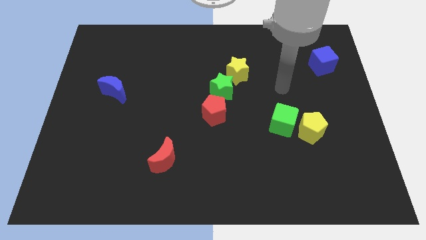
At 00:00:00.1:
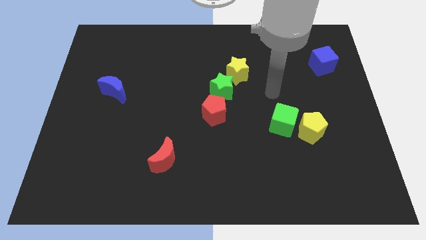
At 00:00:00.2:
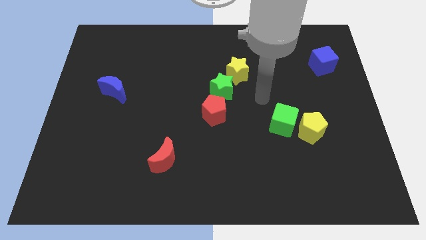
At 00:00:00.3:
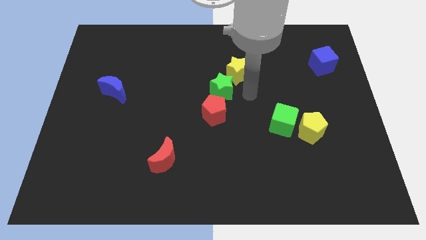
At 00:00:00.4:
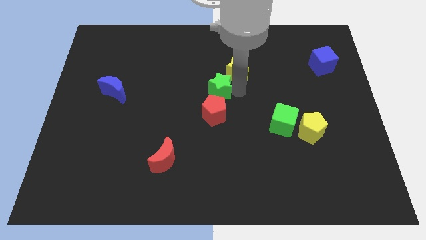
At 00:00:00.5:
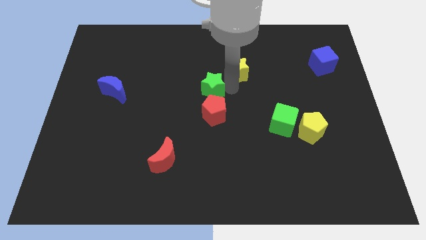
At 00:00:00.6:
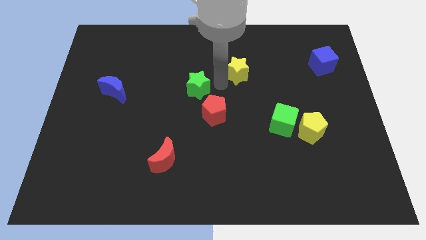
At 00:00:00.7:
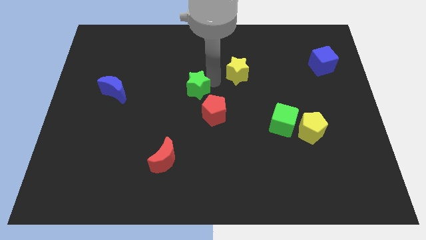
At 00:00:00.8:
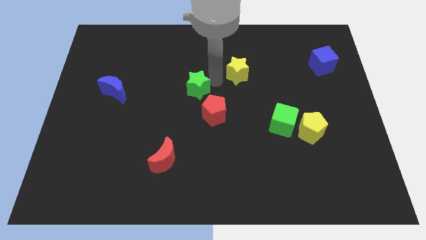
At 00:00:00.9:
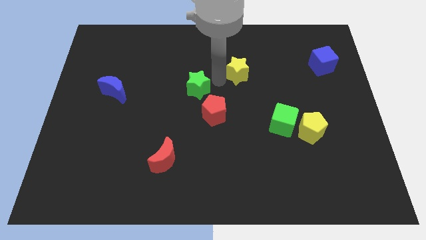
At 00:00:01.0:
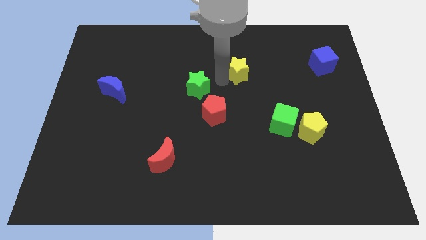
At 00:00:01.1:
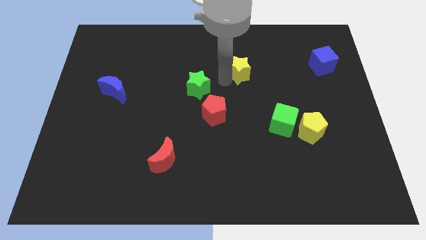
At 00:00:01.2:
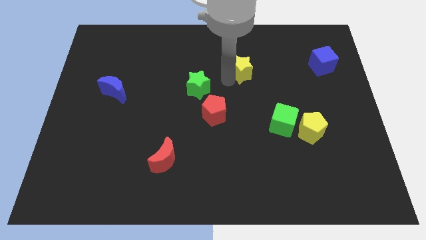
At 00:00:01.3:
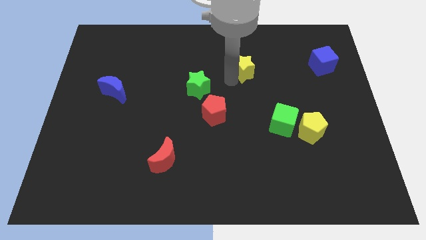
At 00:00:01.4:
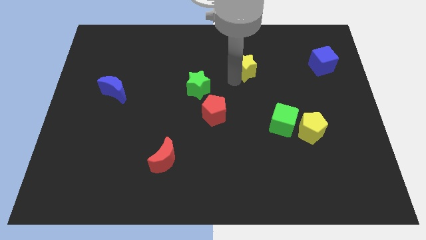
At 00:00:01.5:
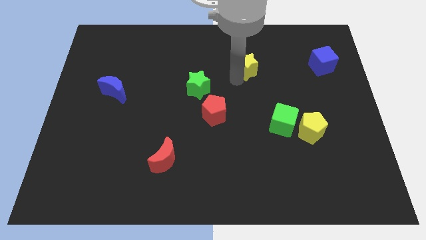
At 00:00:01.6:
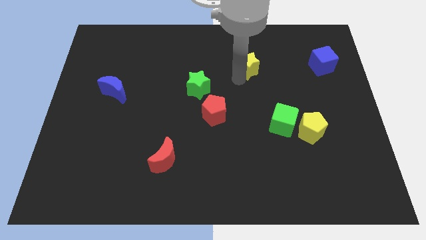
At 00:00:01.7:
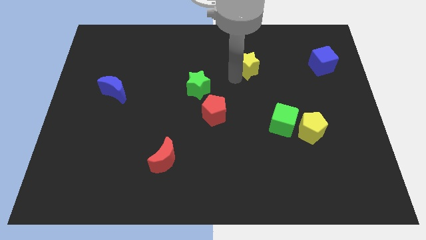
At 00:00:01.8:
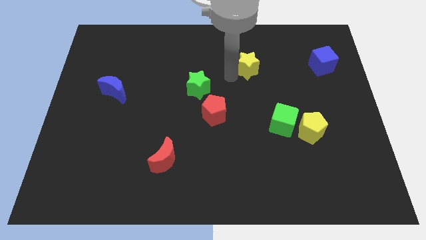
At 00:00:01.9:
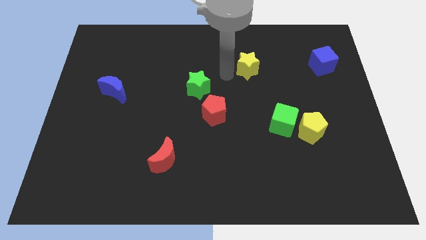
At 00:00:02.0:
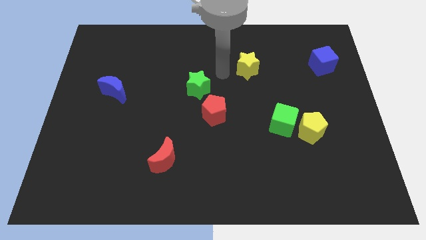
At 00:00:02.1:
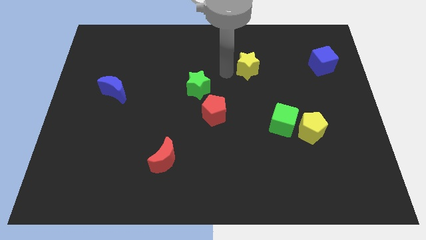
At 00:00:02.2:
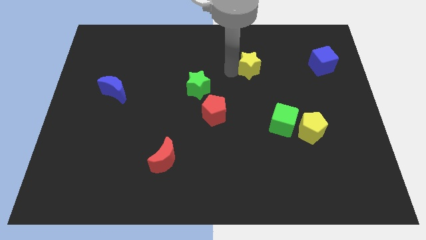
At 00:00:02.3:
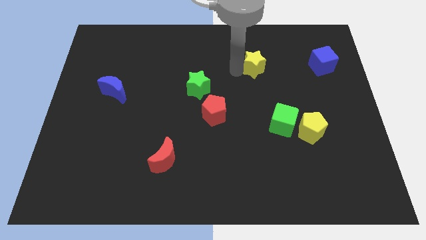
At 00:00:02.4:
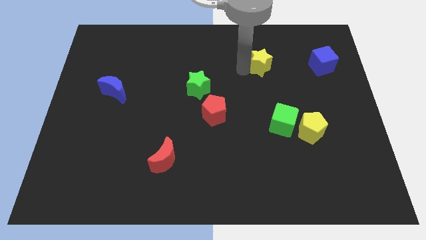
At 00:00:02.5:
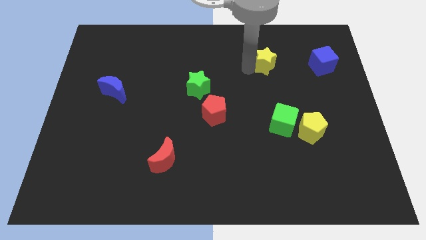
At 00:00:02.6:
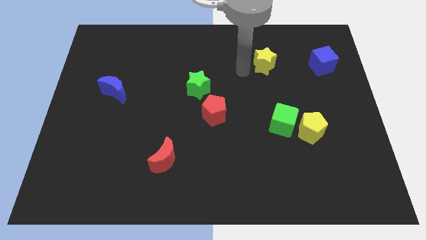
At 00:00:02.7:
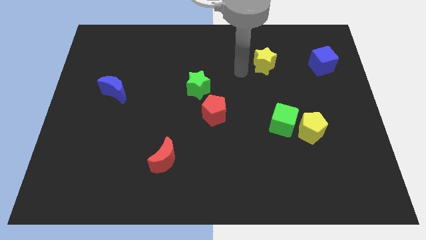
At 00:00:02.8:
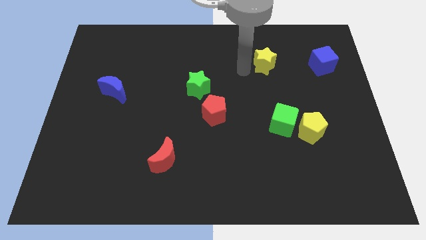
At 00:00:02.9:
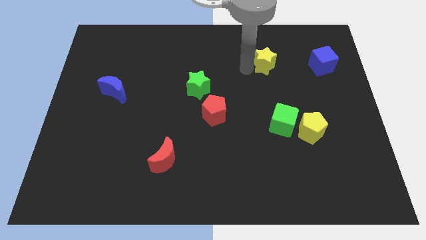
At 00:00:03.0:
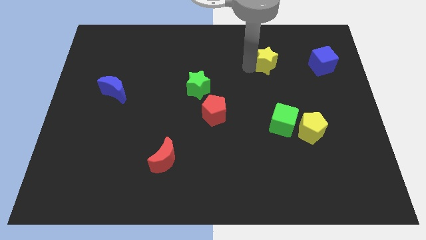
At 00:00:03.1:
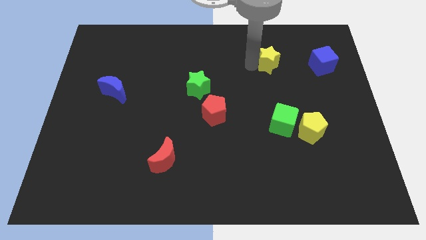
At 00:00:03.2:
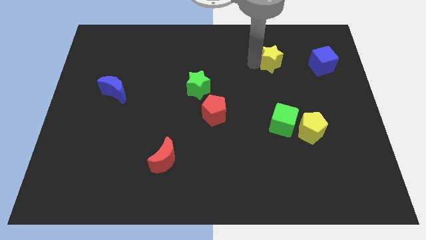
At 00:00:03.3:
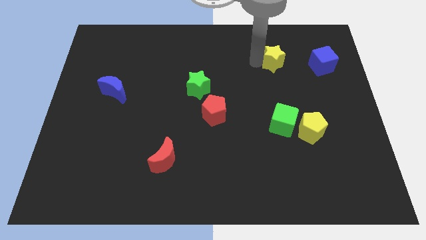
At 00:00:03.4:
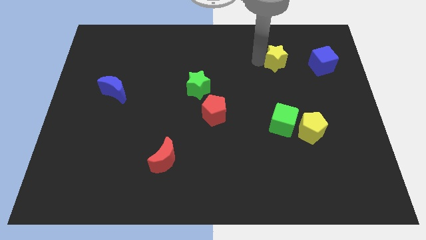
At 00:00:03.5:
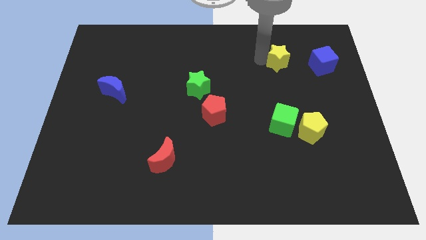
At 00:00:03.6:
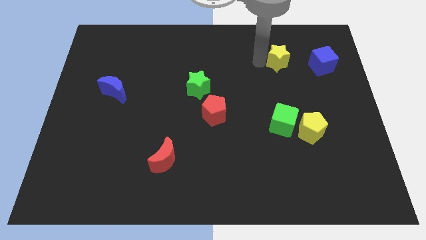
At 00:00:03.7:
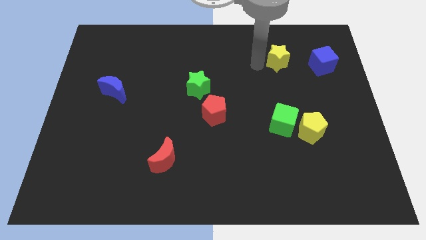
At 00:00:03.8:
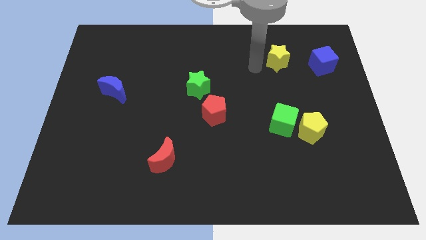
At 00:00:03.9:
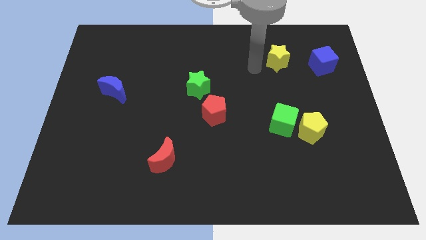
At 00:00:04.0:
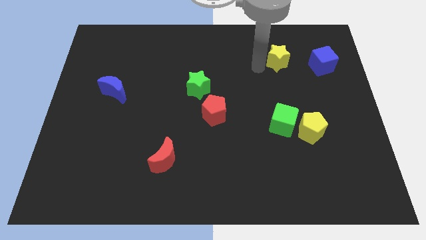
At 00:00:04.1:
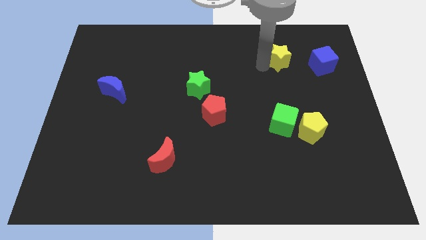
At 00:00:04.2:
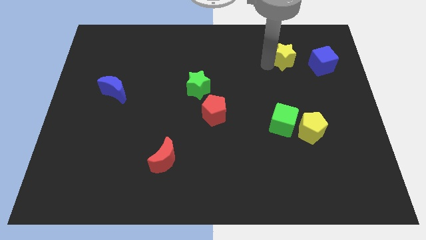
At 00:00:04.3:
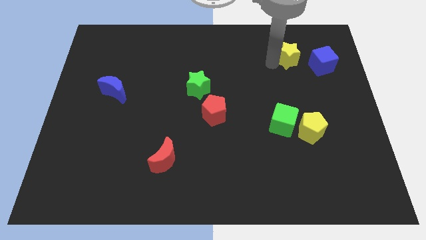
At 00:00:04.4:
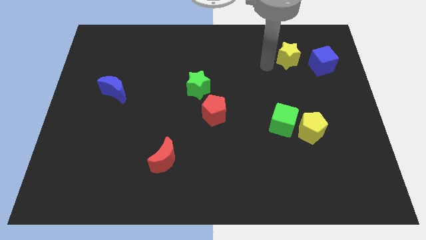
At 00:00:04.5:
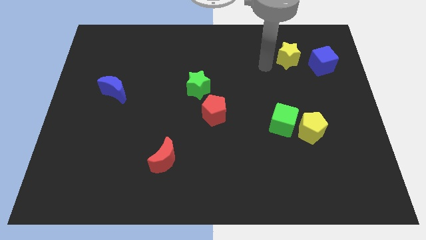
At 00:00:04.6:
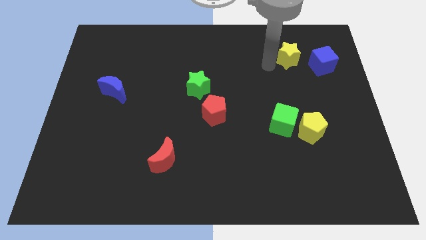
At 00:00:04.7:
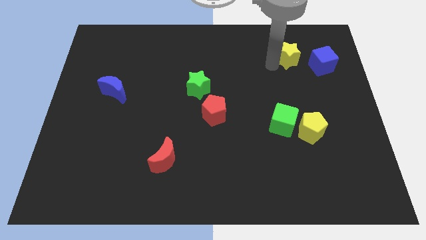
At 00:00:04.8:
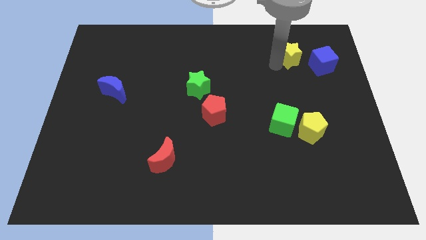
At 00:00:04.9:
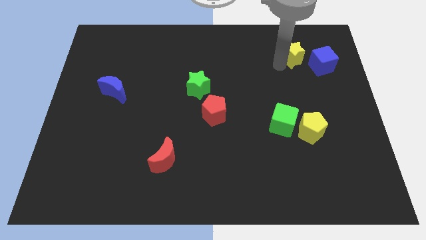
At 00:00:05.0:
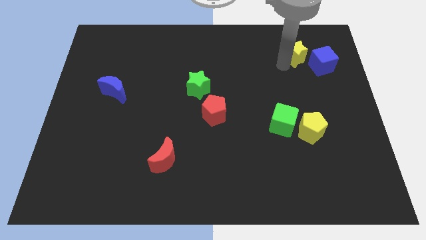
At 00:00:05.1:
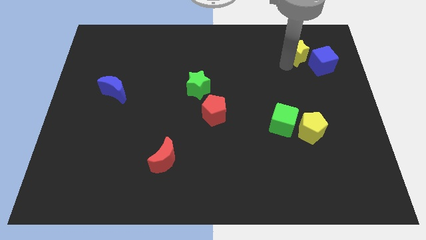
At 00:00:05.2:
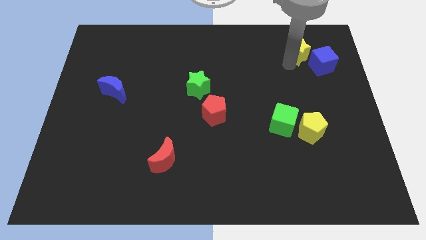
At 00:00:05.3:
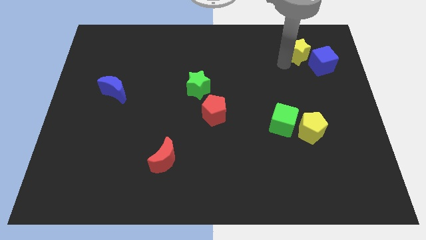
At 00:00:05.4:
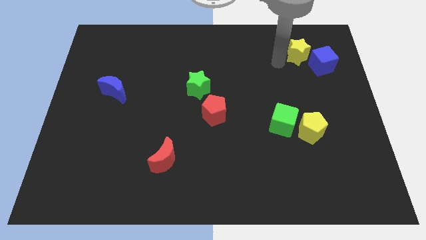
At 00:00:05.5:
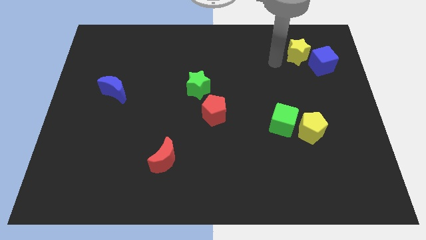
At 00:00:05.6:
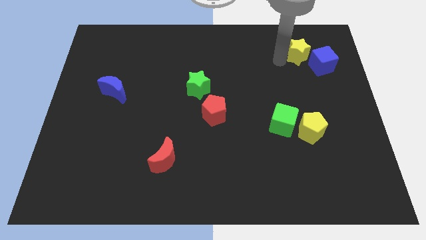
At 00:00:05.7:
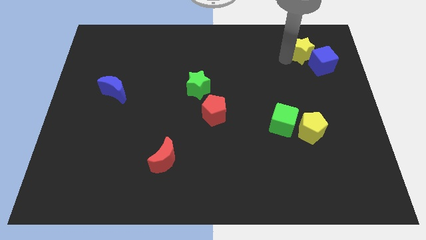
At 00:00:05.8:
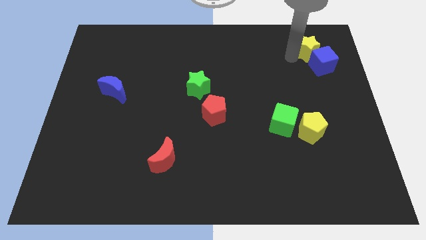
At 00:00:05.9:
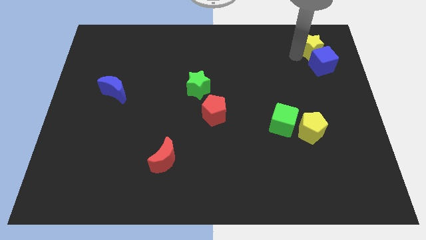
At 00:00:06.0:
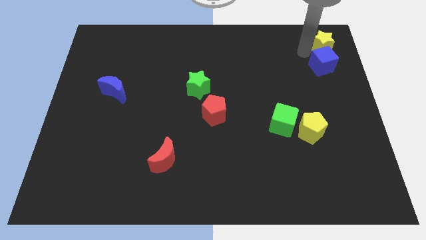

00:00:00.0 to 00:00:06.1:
put the yellow star to the top right corner

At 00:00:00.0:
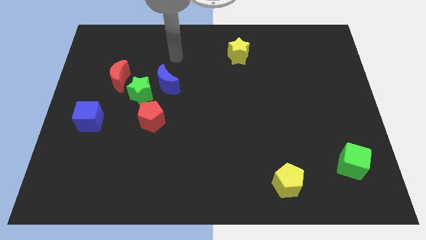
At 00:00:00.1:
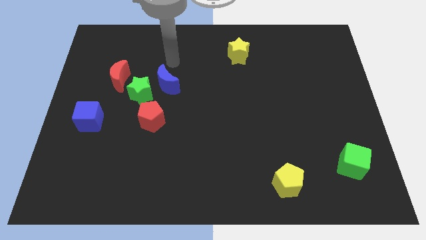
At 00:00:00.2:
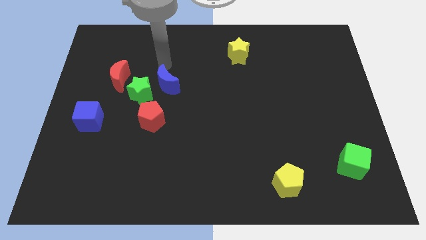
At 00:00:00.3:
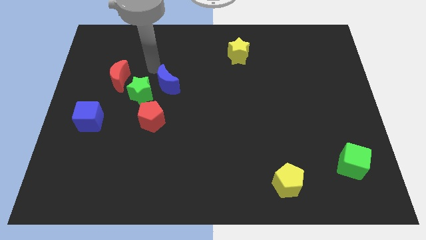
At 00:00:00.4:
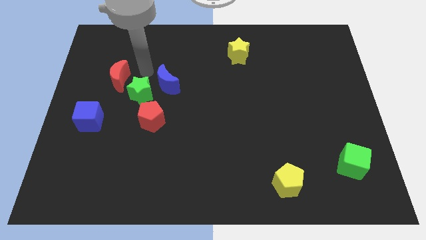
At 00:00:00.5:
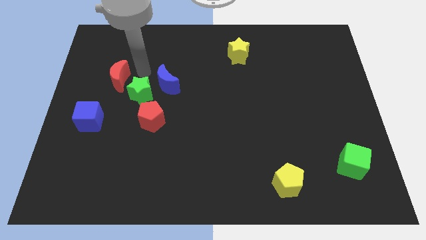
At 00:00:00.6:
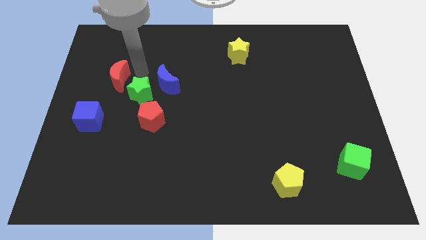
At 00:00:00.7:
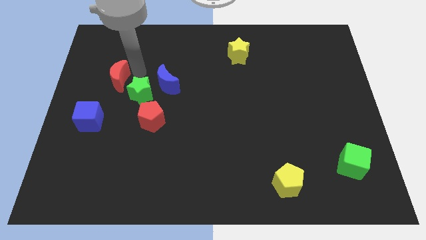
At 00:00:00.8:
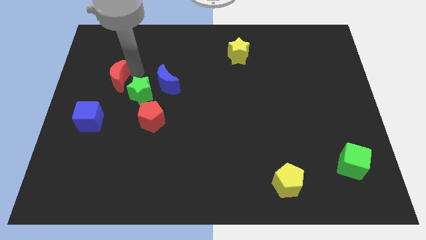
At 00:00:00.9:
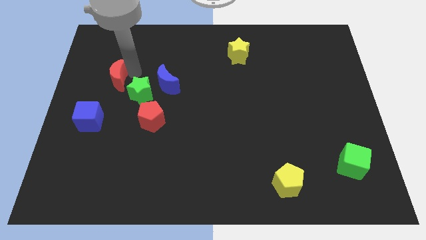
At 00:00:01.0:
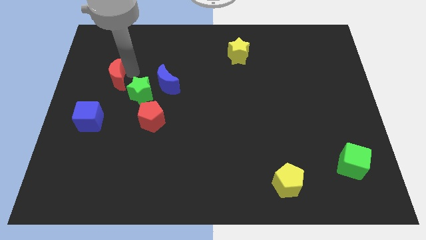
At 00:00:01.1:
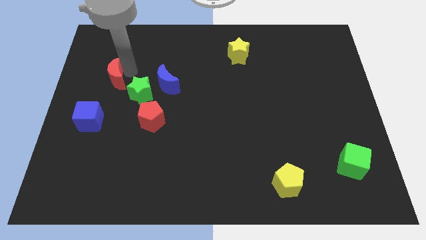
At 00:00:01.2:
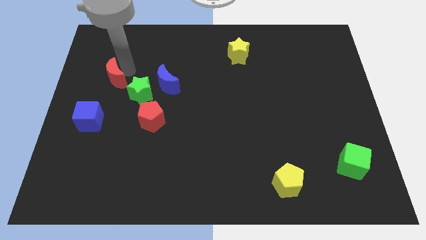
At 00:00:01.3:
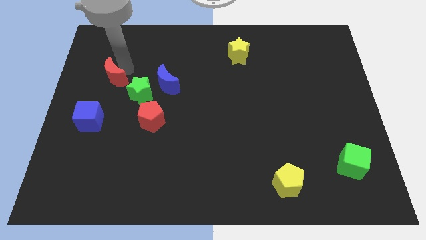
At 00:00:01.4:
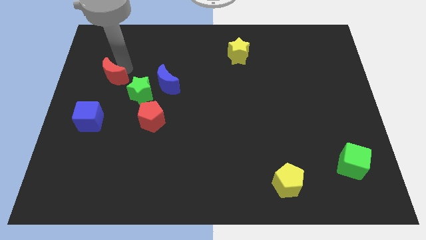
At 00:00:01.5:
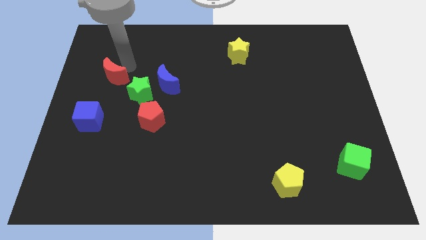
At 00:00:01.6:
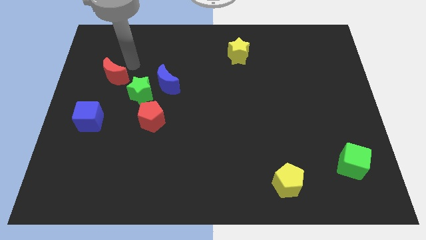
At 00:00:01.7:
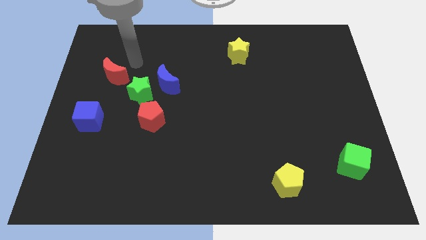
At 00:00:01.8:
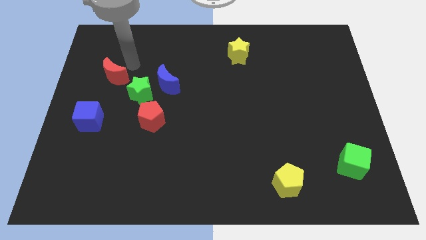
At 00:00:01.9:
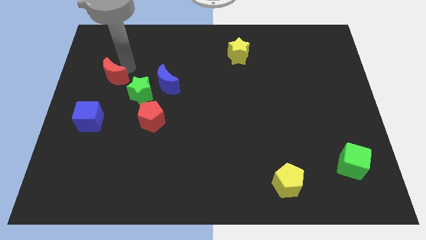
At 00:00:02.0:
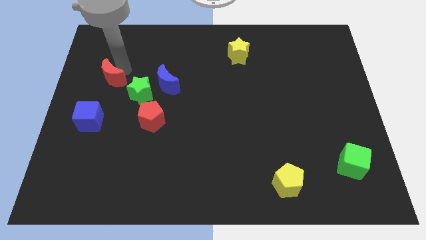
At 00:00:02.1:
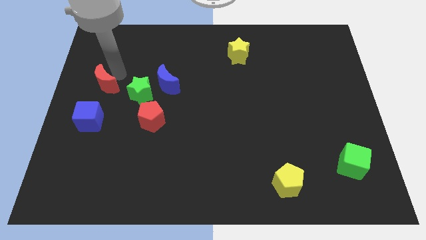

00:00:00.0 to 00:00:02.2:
slide the red moon to the center left
